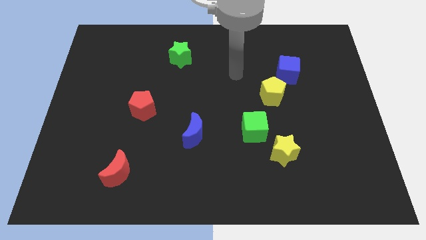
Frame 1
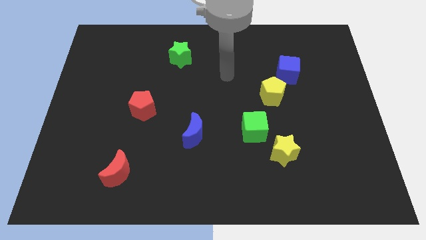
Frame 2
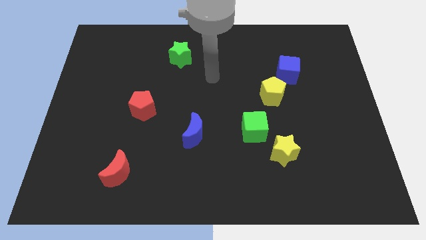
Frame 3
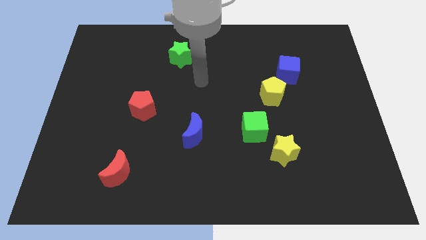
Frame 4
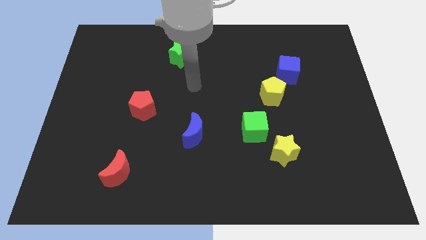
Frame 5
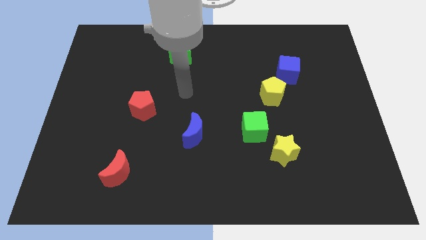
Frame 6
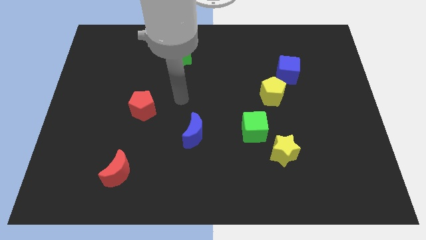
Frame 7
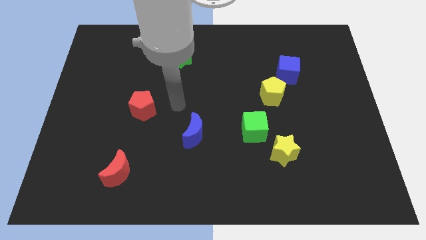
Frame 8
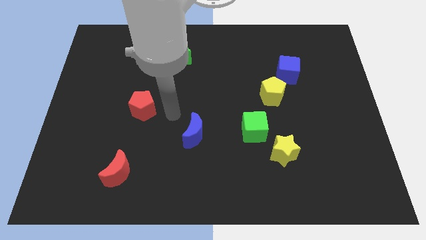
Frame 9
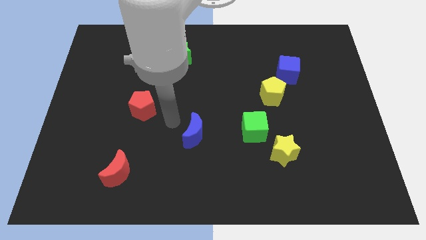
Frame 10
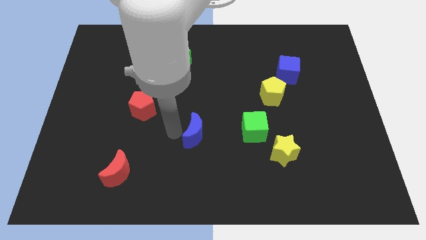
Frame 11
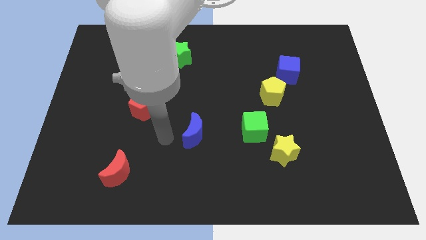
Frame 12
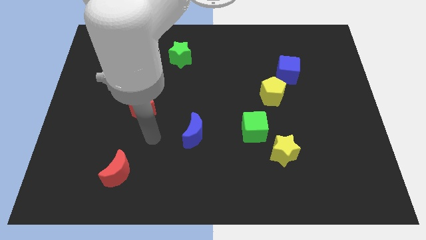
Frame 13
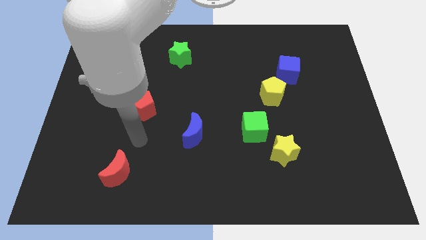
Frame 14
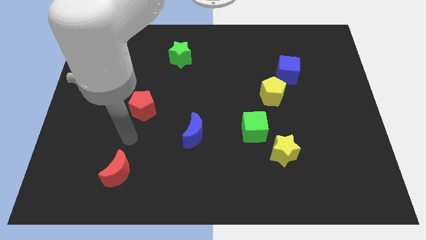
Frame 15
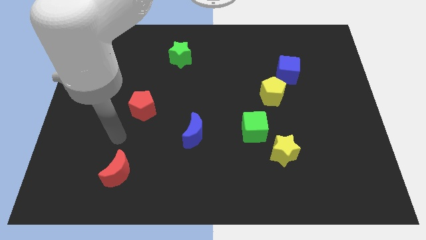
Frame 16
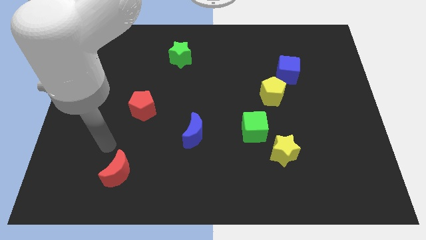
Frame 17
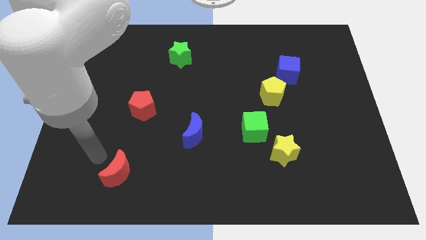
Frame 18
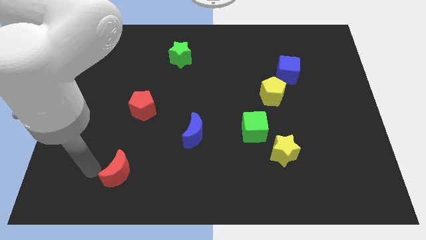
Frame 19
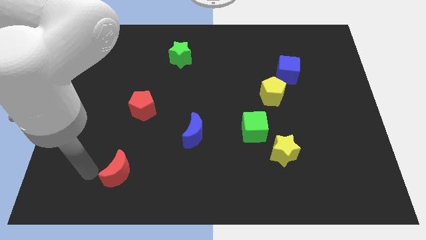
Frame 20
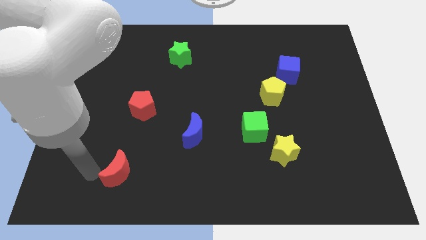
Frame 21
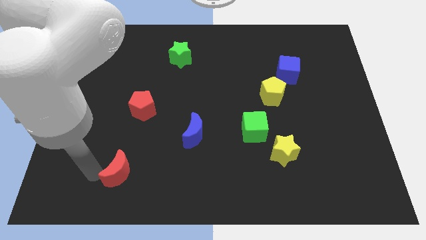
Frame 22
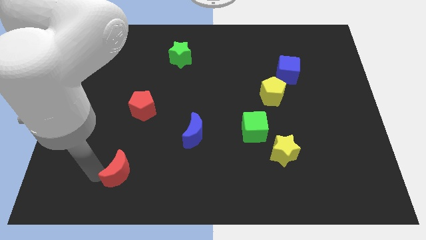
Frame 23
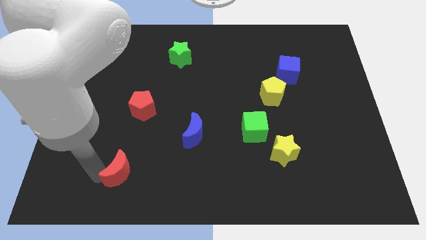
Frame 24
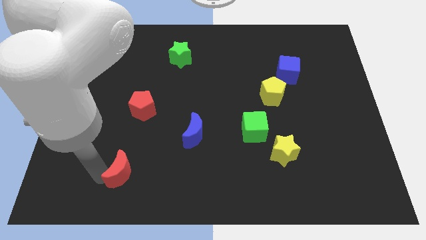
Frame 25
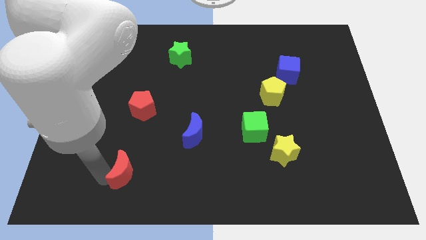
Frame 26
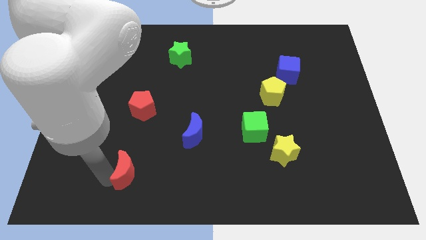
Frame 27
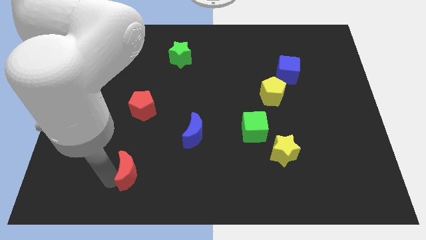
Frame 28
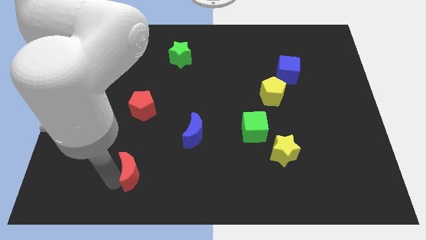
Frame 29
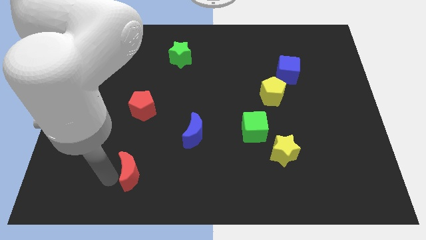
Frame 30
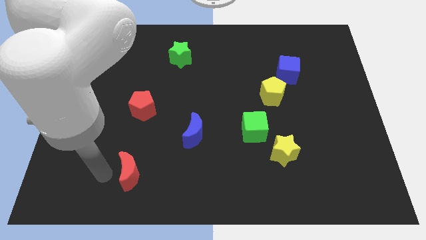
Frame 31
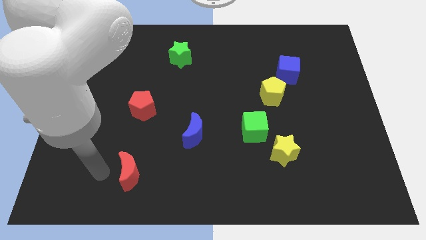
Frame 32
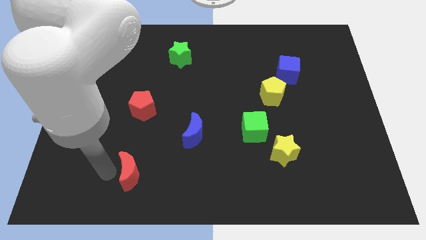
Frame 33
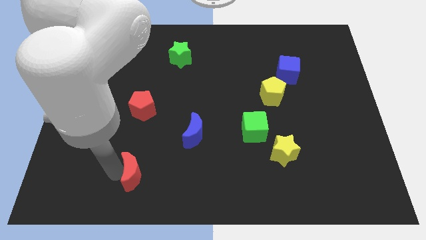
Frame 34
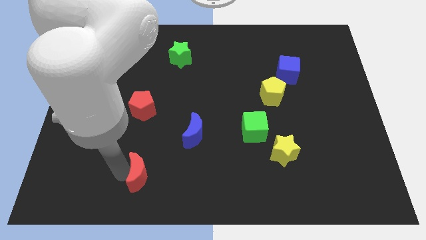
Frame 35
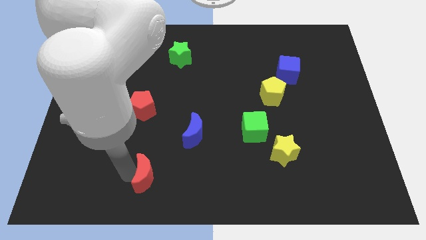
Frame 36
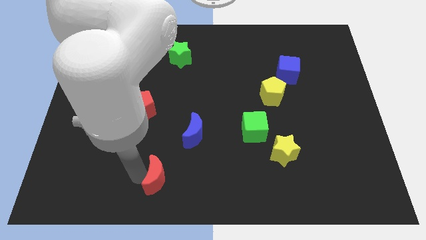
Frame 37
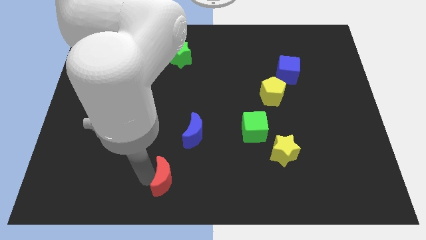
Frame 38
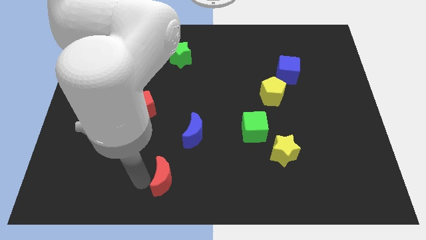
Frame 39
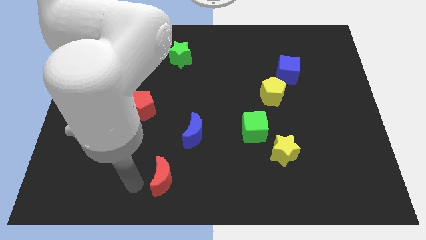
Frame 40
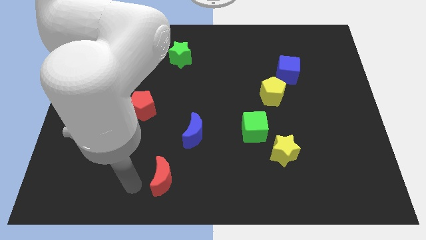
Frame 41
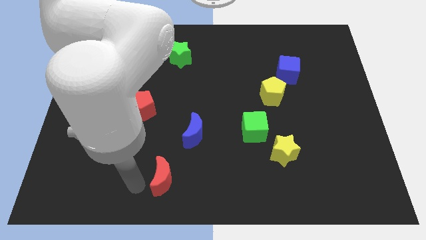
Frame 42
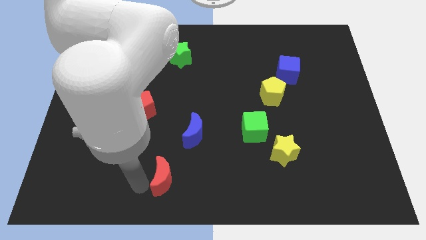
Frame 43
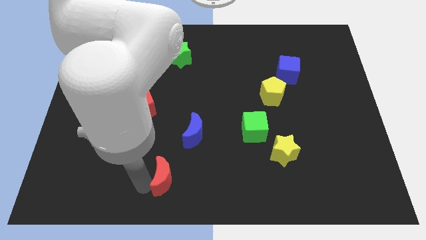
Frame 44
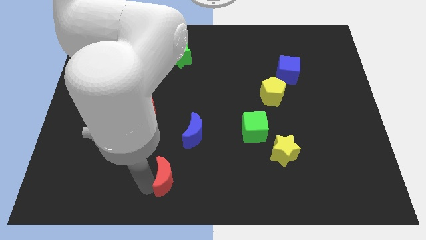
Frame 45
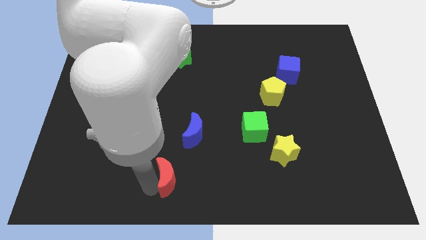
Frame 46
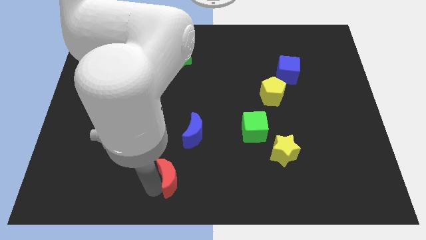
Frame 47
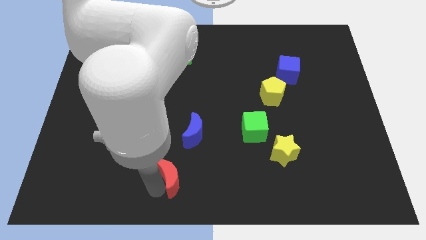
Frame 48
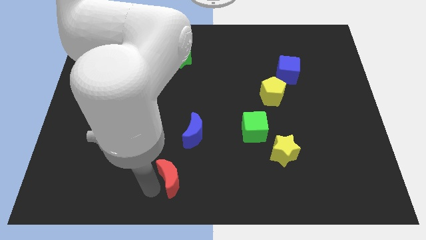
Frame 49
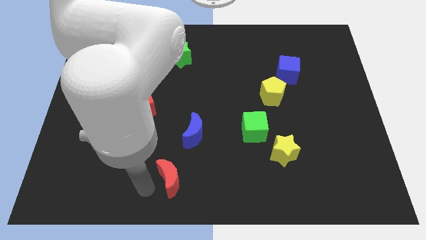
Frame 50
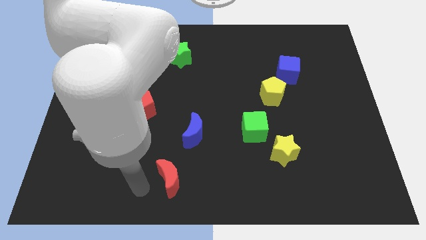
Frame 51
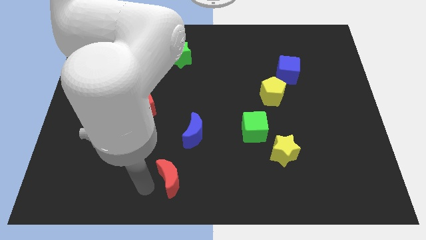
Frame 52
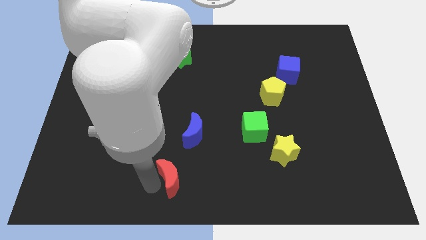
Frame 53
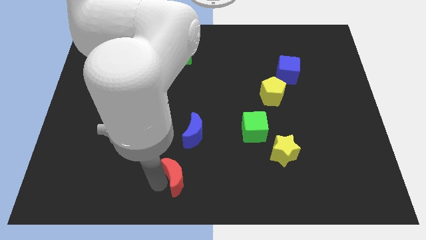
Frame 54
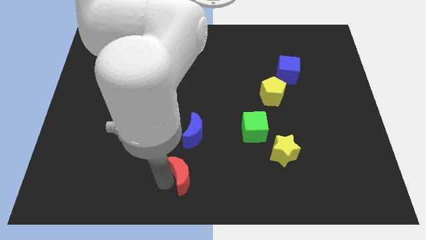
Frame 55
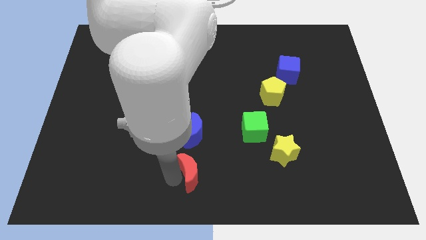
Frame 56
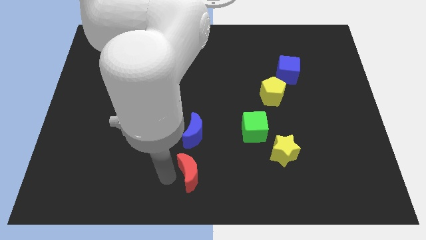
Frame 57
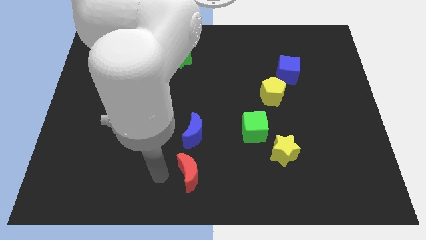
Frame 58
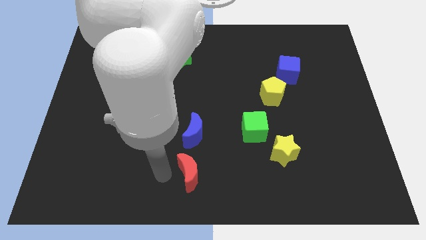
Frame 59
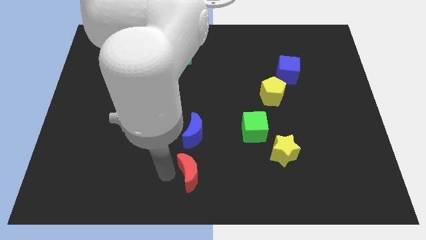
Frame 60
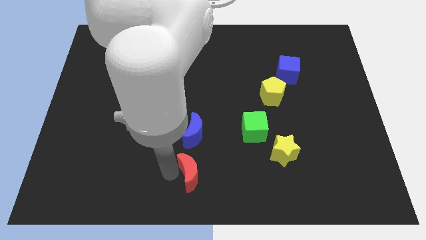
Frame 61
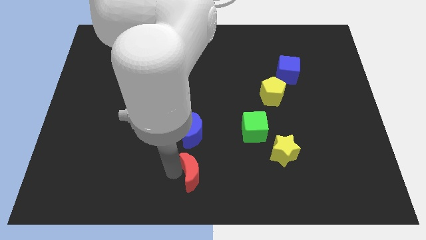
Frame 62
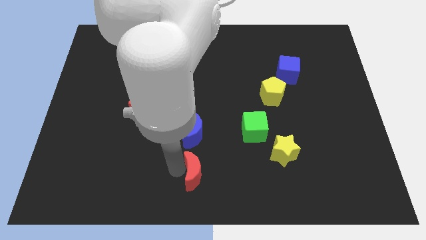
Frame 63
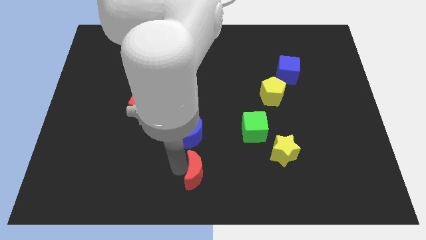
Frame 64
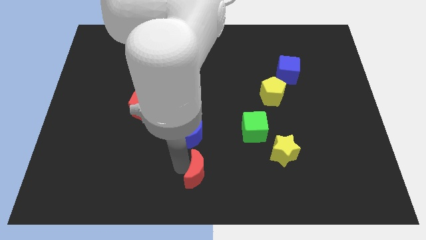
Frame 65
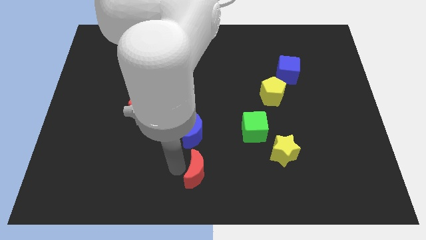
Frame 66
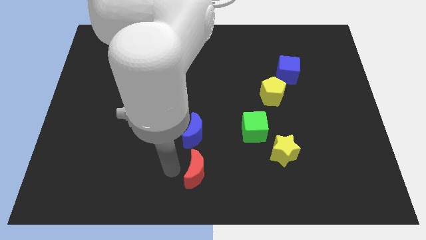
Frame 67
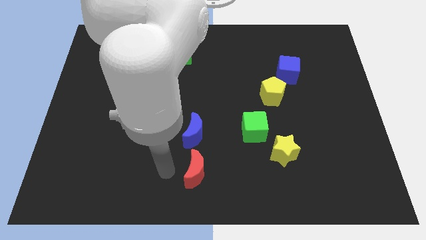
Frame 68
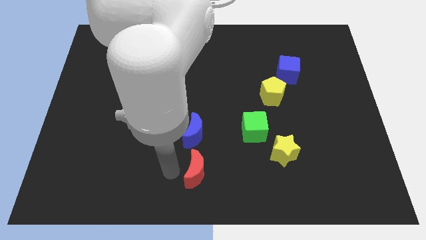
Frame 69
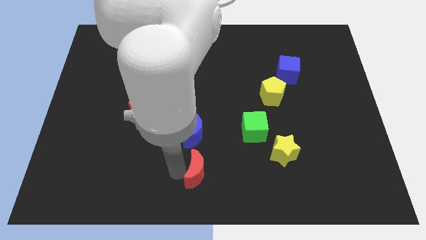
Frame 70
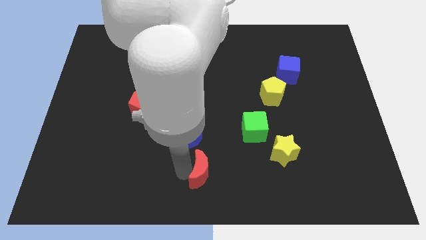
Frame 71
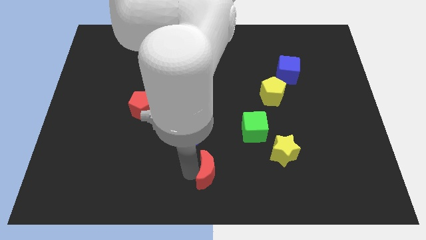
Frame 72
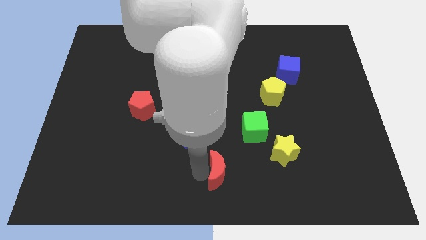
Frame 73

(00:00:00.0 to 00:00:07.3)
slide the red moon right

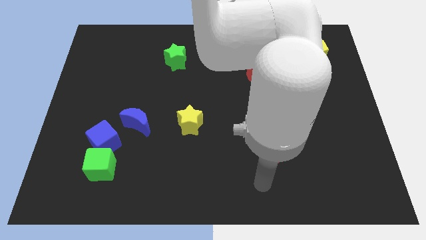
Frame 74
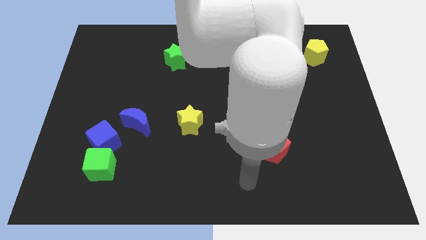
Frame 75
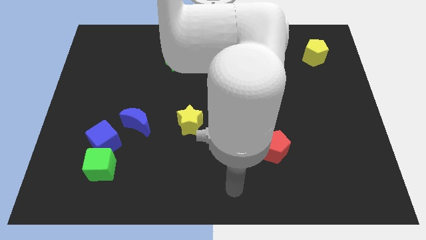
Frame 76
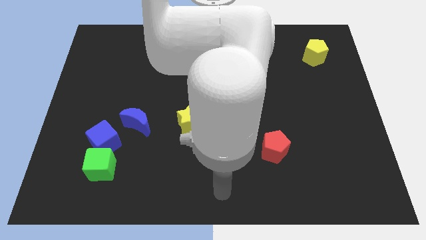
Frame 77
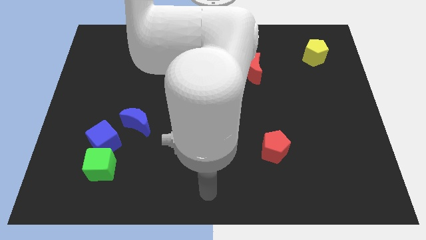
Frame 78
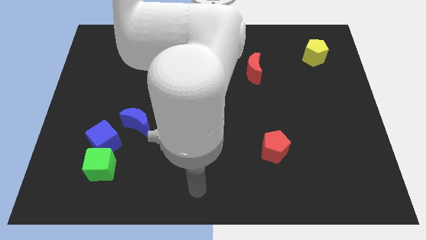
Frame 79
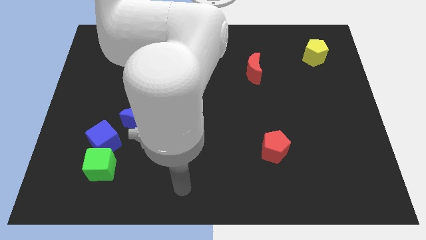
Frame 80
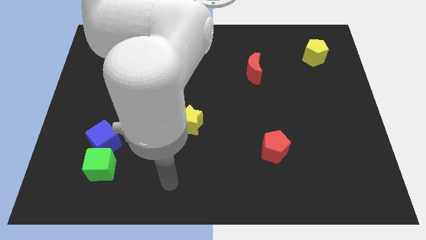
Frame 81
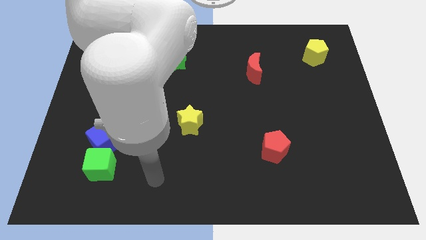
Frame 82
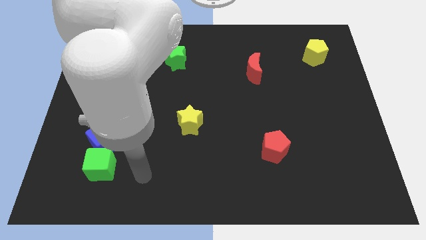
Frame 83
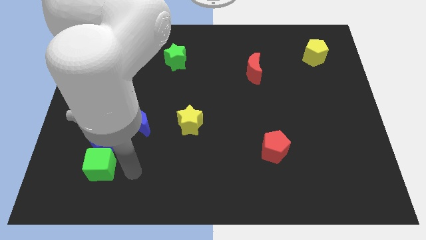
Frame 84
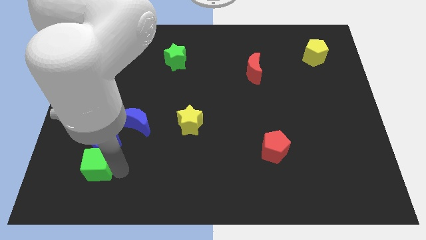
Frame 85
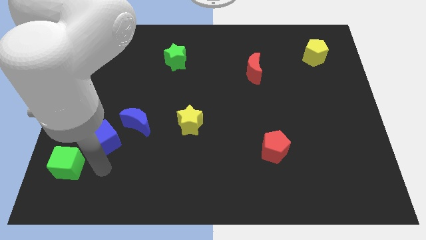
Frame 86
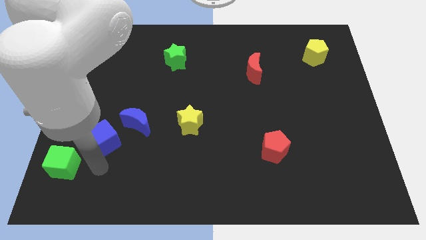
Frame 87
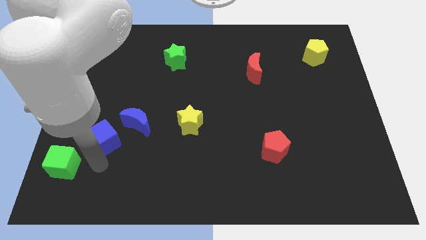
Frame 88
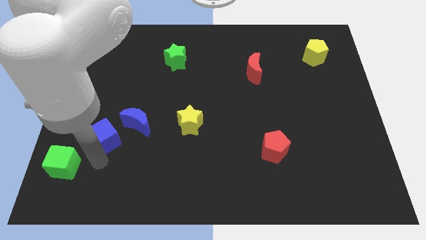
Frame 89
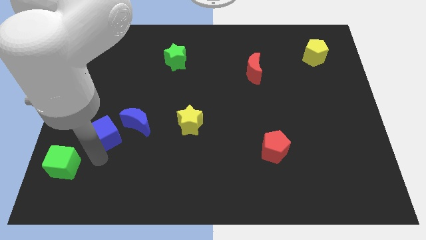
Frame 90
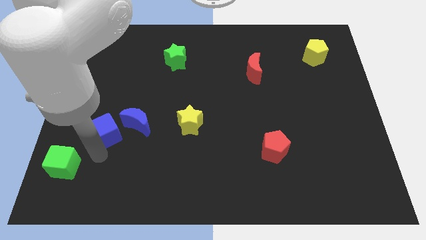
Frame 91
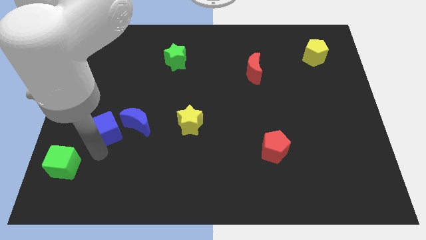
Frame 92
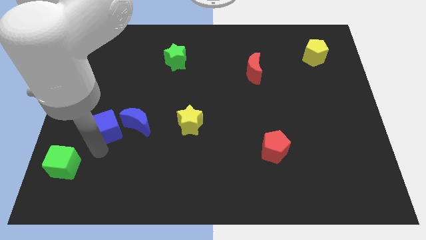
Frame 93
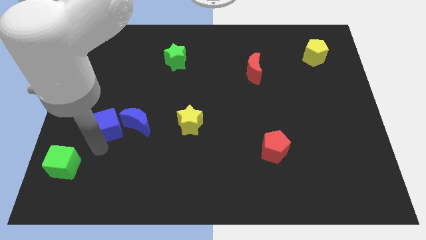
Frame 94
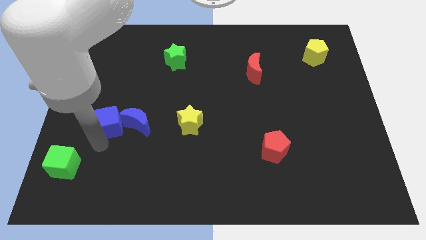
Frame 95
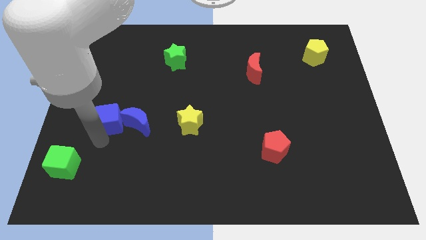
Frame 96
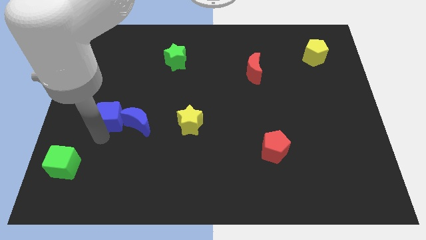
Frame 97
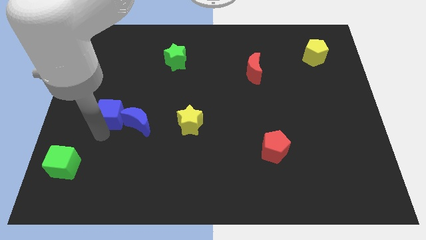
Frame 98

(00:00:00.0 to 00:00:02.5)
push the blue cube up a bit
